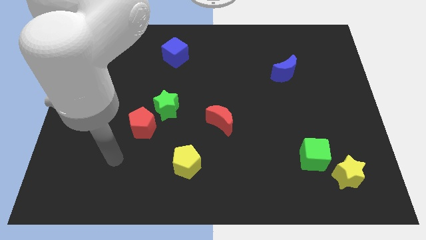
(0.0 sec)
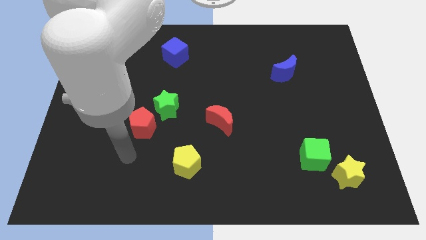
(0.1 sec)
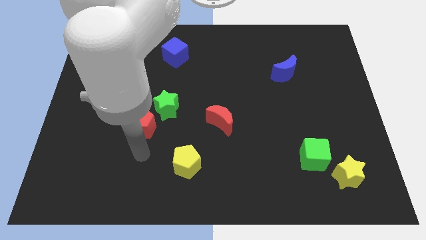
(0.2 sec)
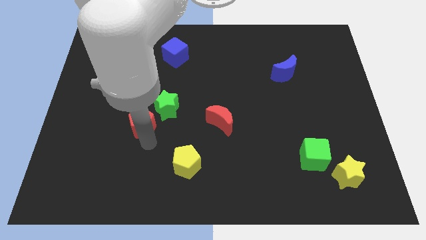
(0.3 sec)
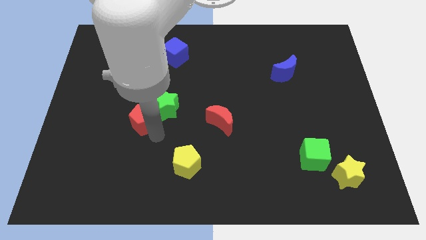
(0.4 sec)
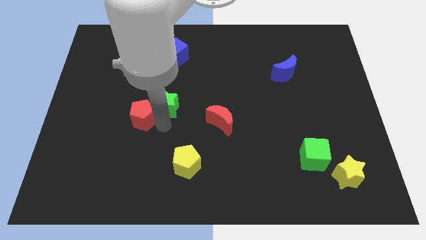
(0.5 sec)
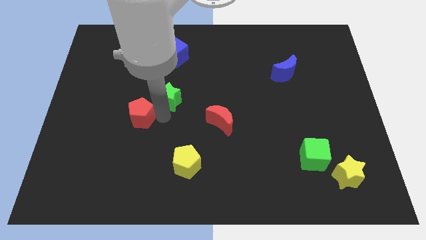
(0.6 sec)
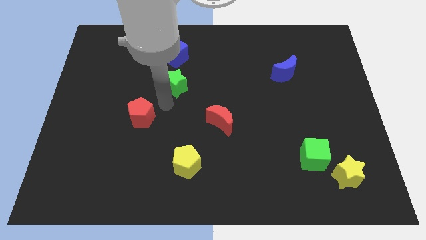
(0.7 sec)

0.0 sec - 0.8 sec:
separate the red pentagon from the green star

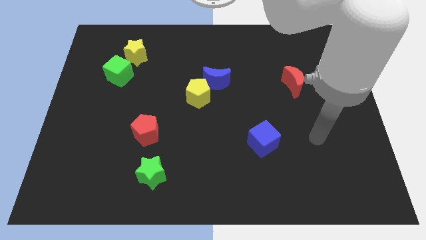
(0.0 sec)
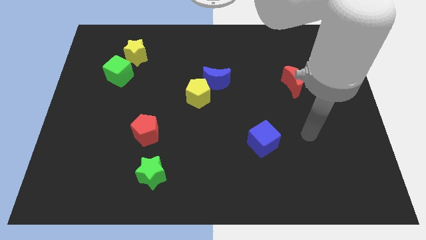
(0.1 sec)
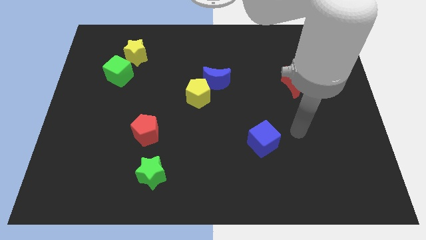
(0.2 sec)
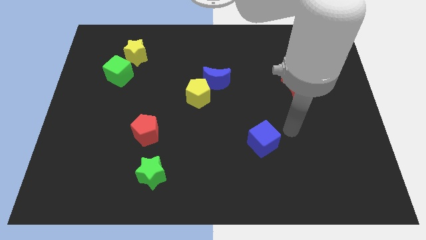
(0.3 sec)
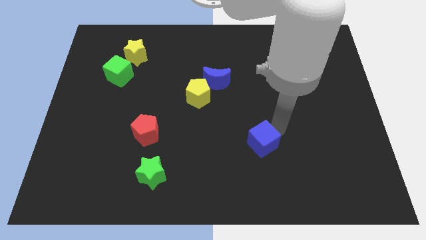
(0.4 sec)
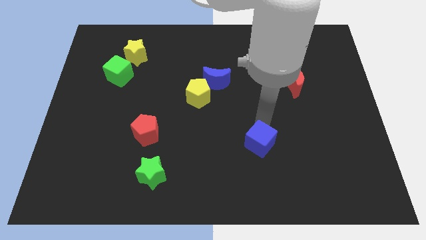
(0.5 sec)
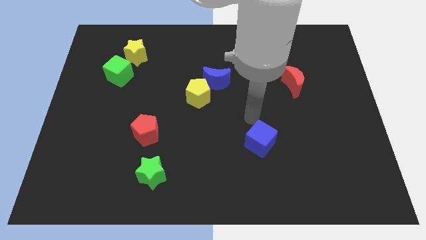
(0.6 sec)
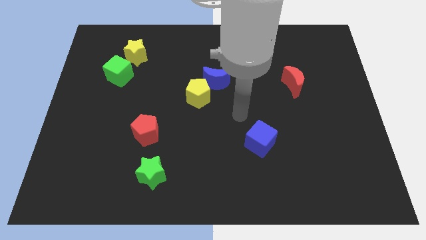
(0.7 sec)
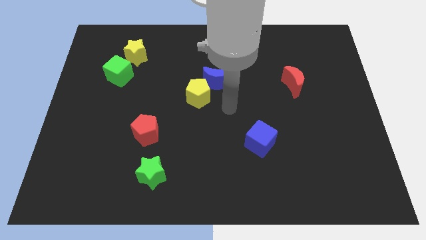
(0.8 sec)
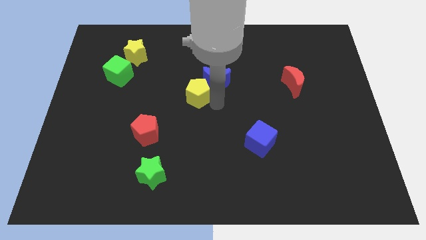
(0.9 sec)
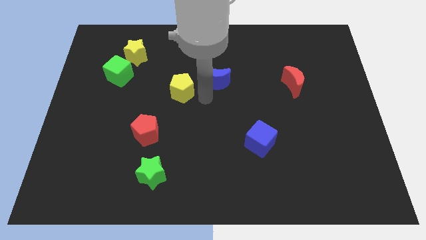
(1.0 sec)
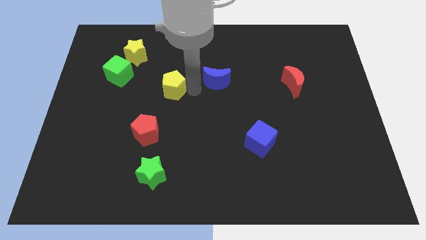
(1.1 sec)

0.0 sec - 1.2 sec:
move the blue moon away from the yellow pentagon

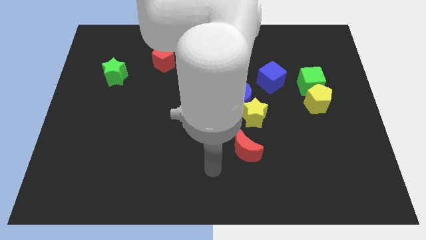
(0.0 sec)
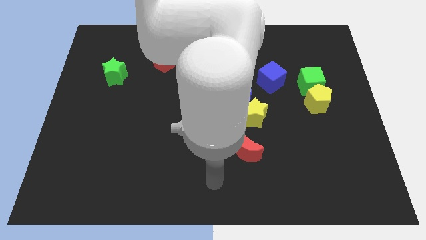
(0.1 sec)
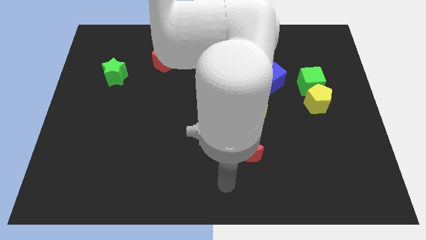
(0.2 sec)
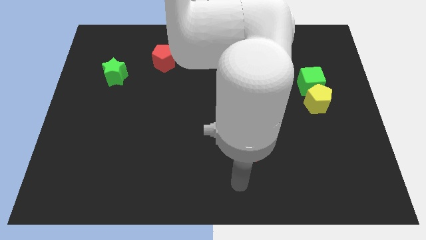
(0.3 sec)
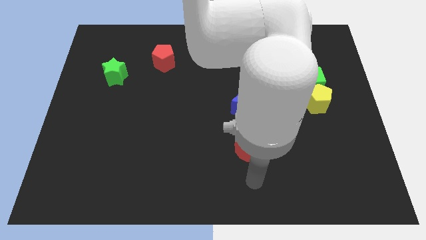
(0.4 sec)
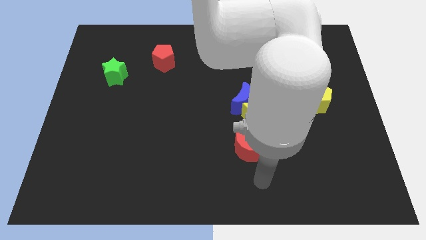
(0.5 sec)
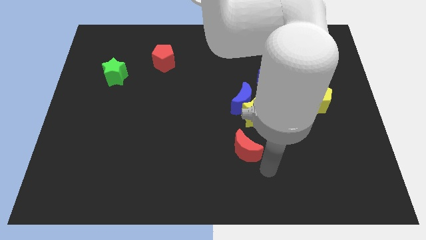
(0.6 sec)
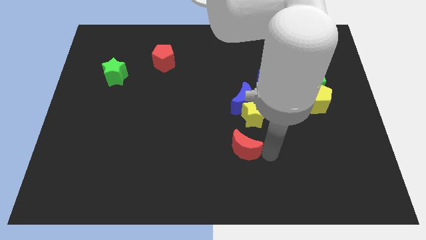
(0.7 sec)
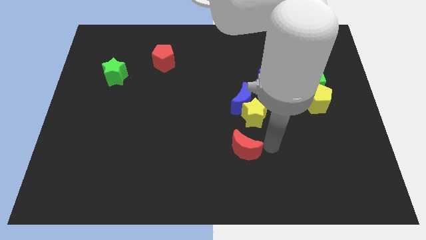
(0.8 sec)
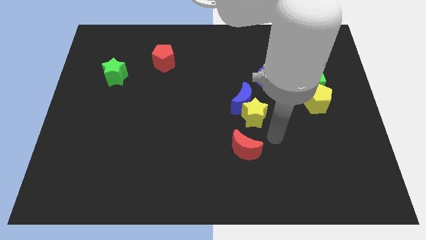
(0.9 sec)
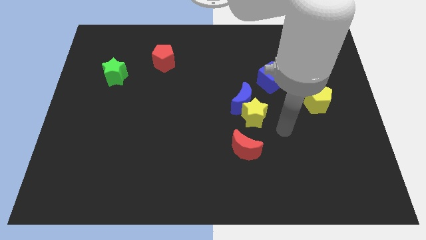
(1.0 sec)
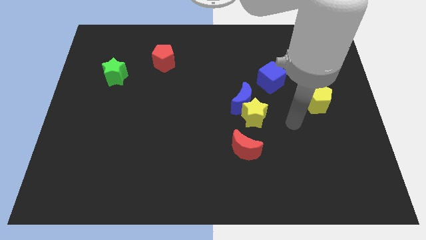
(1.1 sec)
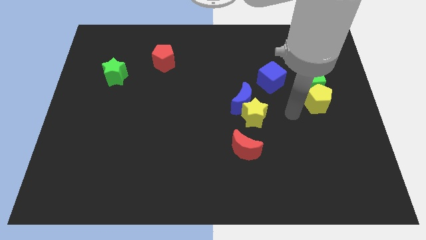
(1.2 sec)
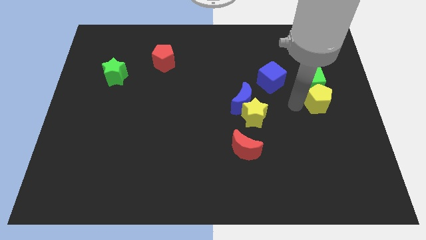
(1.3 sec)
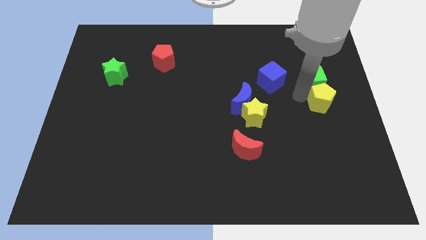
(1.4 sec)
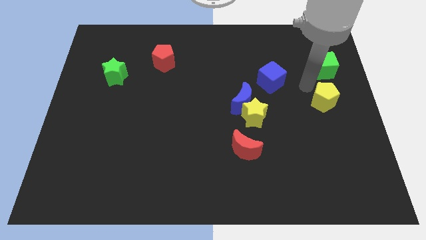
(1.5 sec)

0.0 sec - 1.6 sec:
separate the yellow pentagon from the green cube

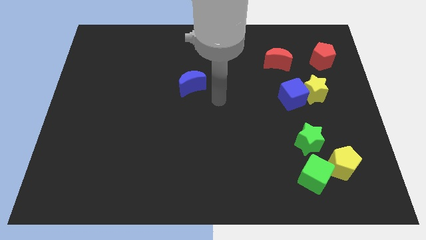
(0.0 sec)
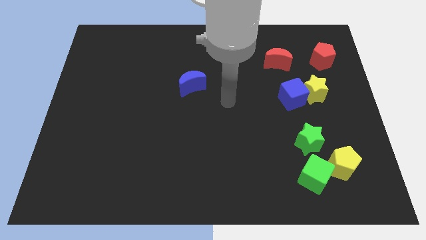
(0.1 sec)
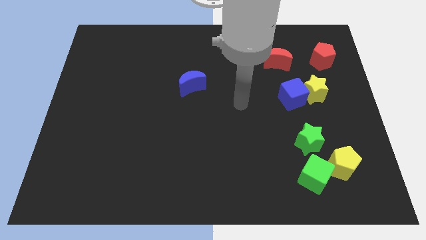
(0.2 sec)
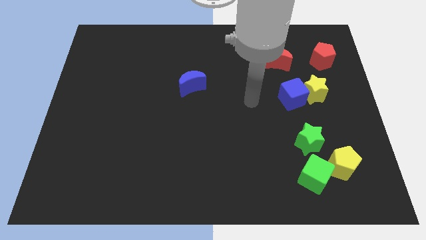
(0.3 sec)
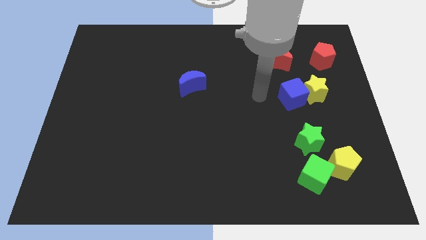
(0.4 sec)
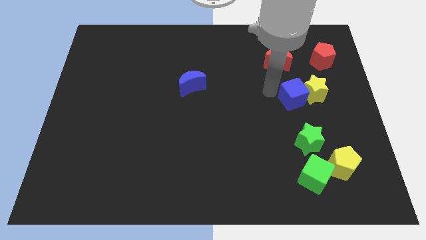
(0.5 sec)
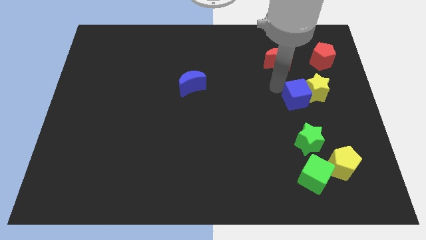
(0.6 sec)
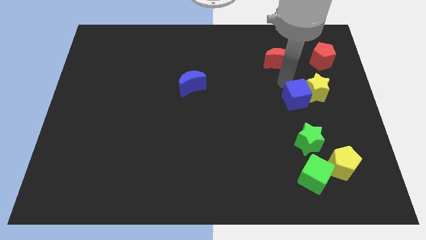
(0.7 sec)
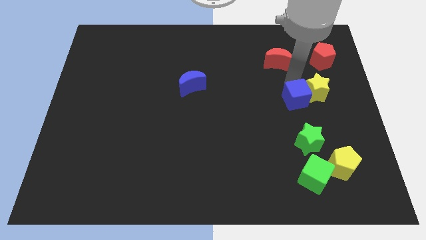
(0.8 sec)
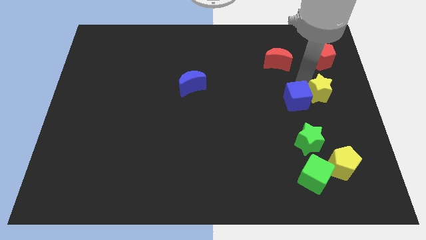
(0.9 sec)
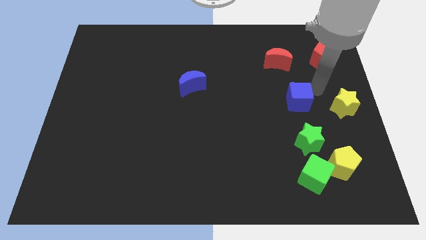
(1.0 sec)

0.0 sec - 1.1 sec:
separate the blue cube from the yellow star

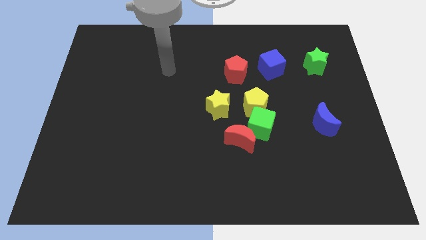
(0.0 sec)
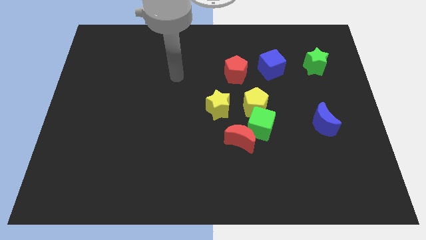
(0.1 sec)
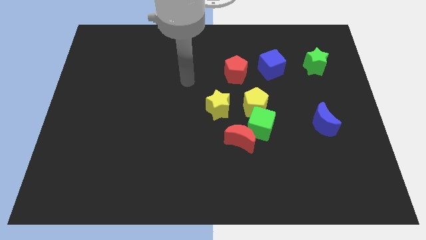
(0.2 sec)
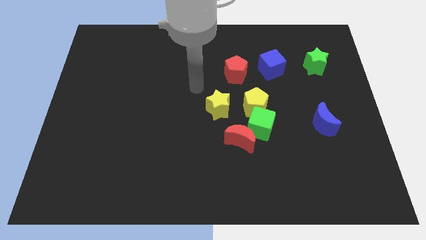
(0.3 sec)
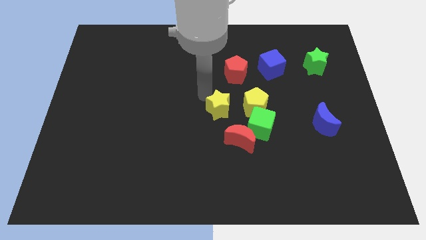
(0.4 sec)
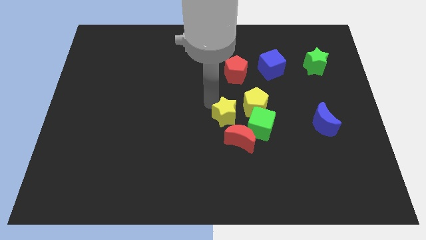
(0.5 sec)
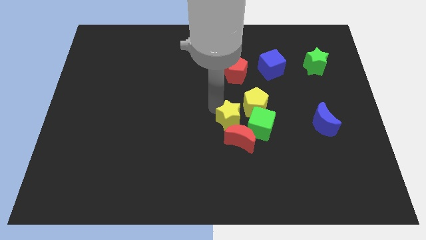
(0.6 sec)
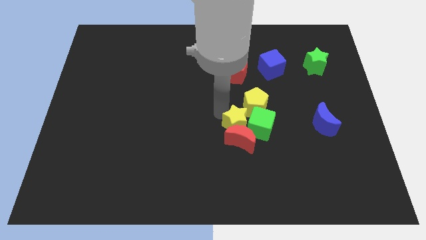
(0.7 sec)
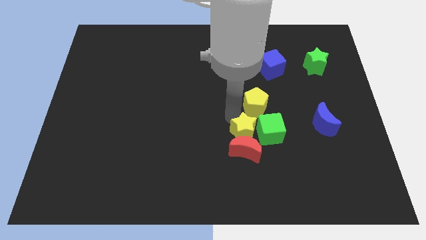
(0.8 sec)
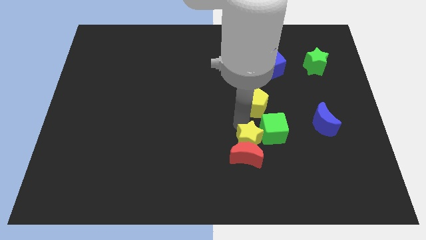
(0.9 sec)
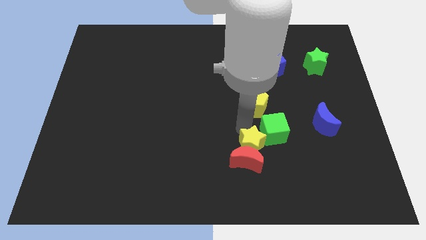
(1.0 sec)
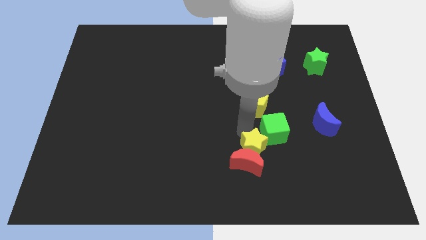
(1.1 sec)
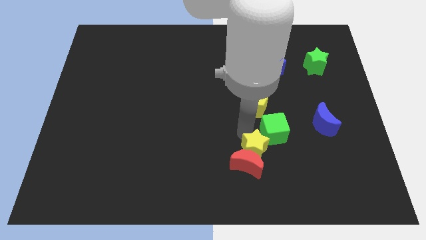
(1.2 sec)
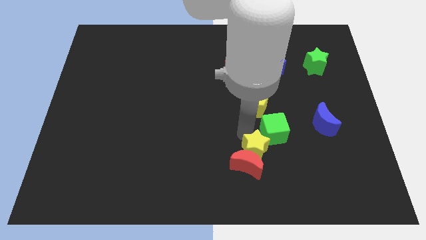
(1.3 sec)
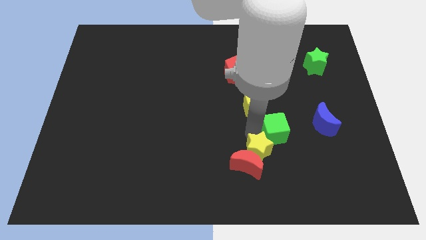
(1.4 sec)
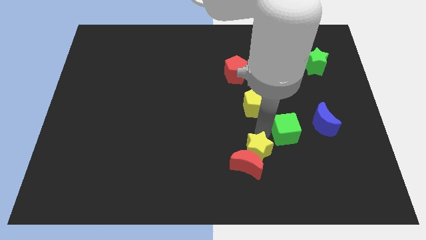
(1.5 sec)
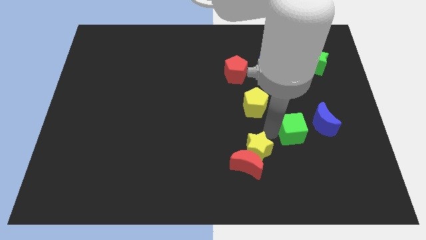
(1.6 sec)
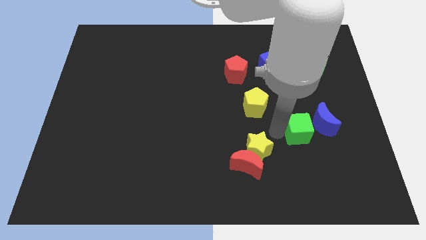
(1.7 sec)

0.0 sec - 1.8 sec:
pull the green cube apart from the yellow pentagon and red moon

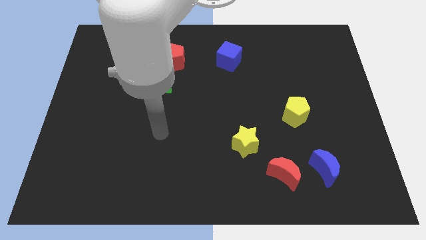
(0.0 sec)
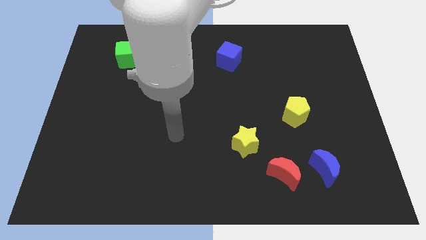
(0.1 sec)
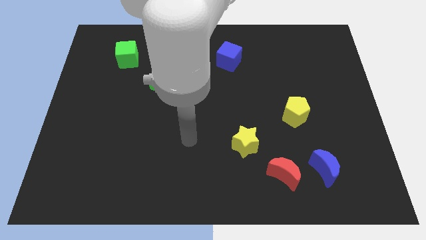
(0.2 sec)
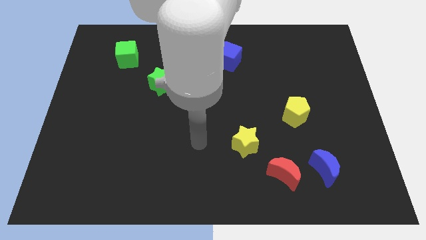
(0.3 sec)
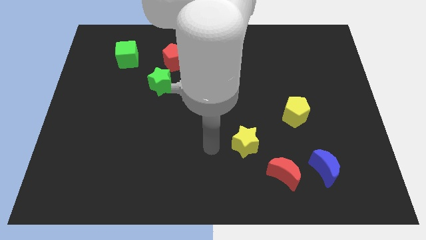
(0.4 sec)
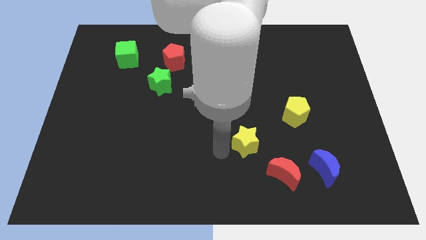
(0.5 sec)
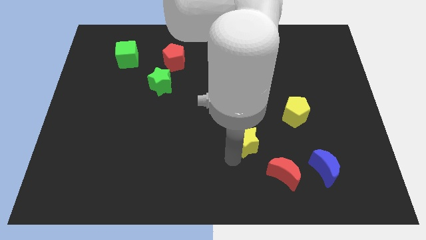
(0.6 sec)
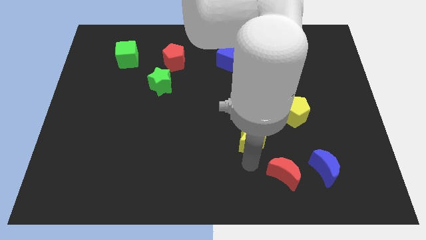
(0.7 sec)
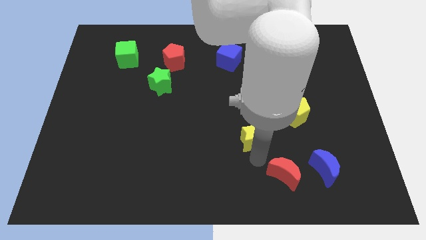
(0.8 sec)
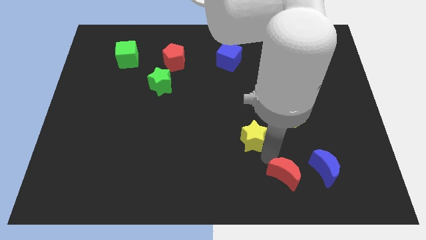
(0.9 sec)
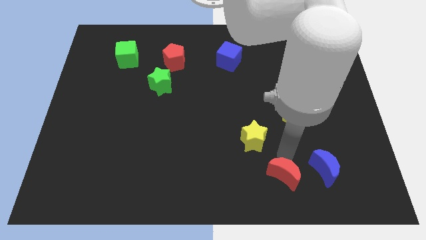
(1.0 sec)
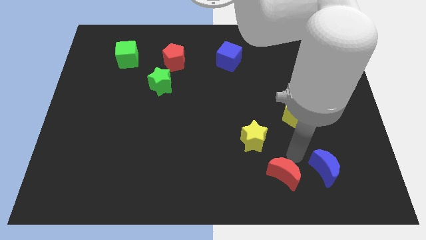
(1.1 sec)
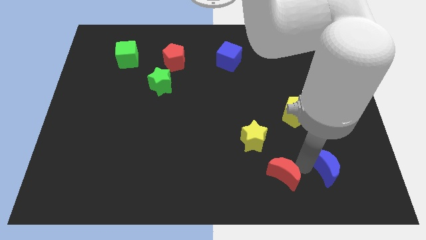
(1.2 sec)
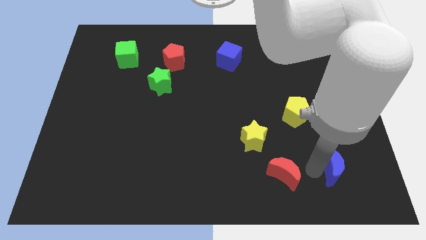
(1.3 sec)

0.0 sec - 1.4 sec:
separate the red moon from the blue moon

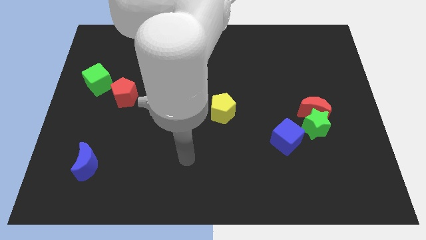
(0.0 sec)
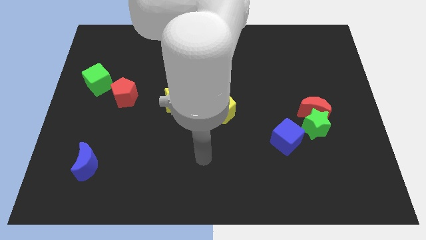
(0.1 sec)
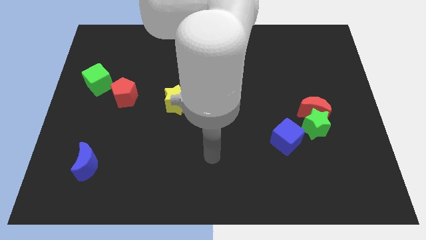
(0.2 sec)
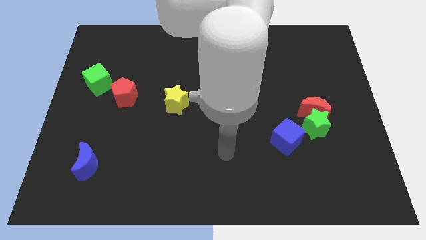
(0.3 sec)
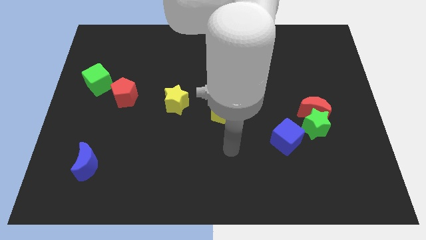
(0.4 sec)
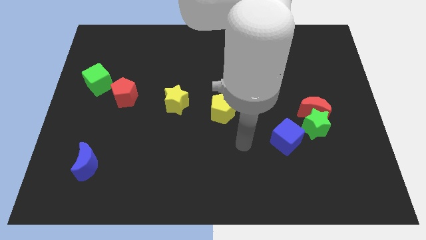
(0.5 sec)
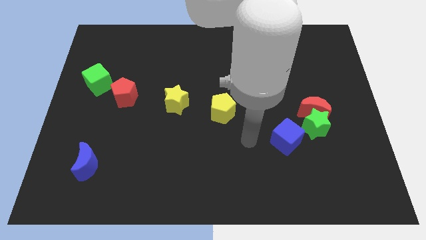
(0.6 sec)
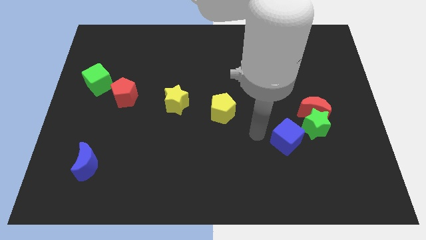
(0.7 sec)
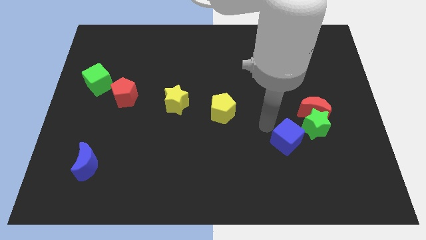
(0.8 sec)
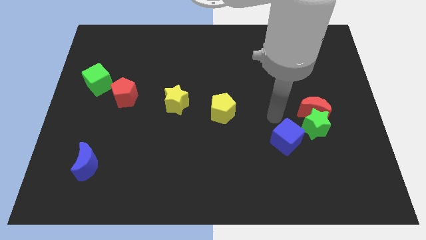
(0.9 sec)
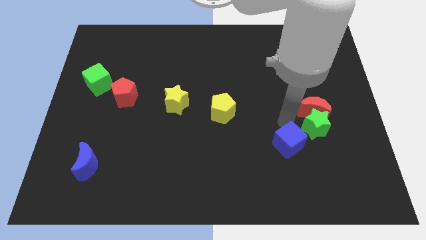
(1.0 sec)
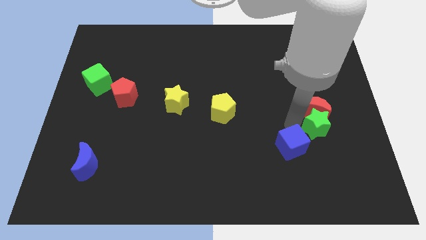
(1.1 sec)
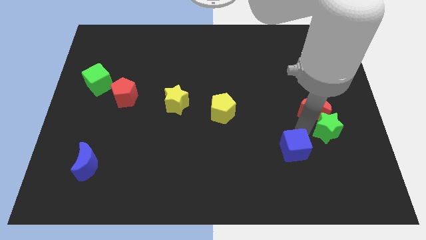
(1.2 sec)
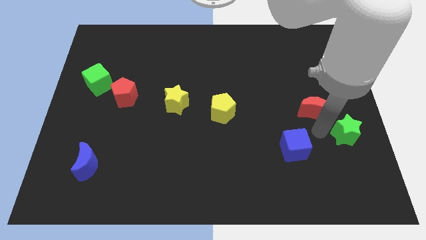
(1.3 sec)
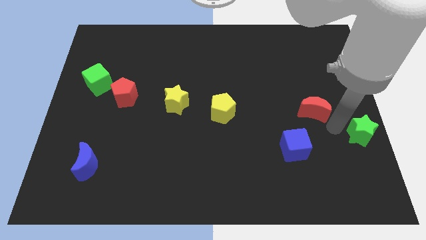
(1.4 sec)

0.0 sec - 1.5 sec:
pull the red moon apart from the green star

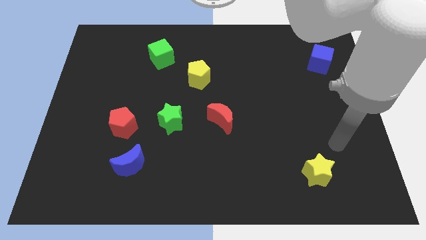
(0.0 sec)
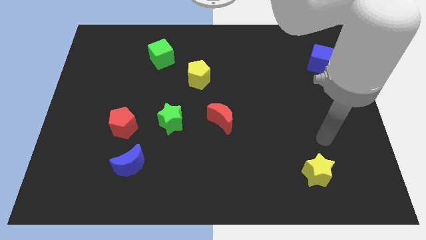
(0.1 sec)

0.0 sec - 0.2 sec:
move the red pentagon away from the blue moon
